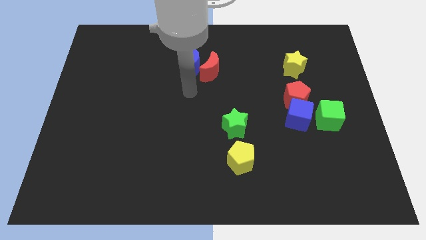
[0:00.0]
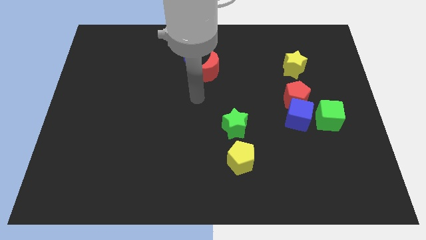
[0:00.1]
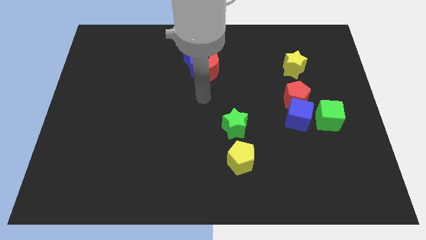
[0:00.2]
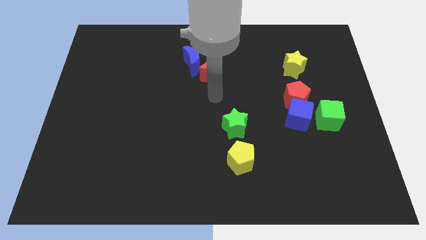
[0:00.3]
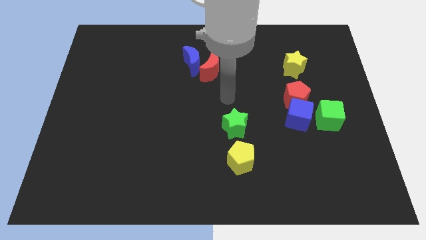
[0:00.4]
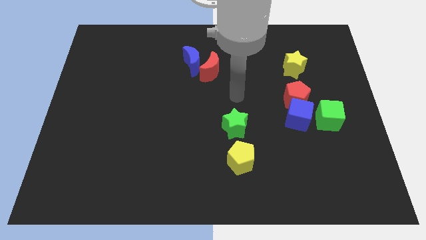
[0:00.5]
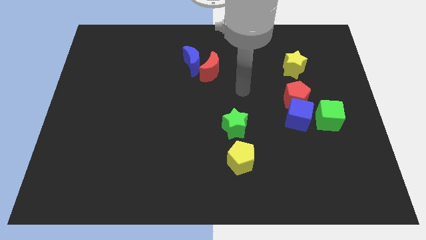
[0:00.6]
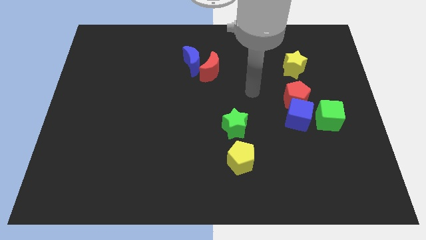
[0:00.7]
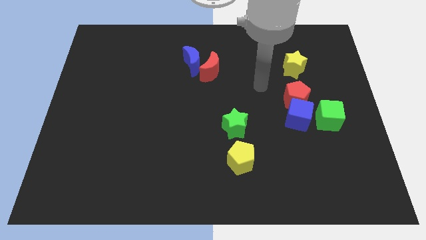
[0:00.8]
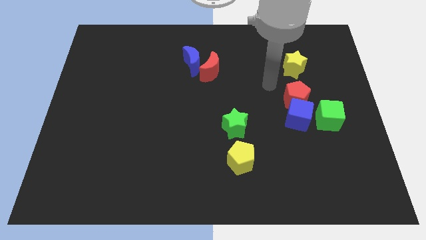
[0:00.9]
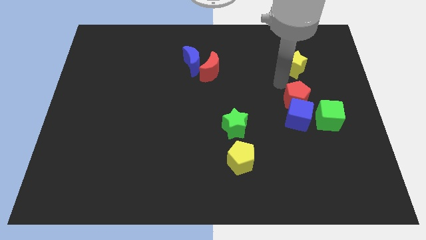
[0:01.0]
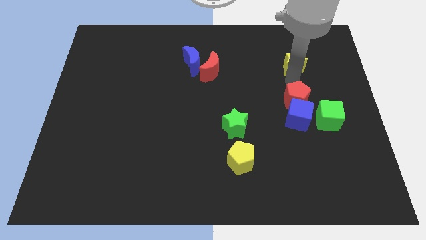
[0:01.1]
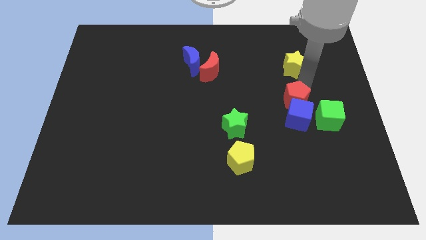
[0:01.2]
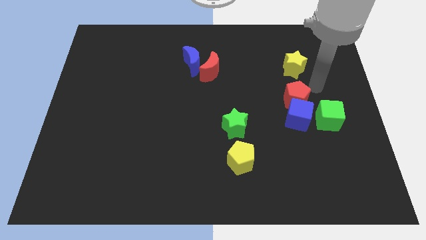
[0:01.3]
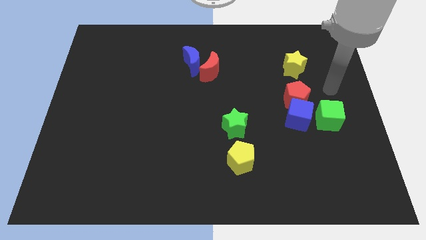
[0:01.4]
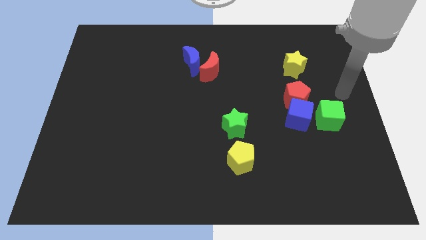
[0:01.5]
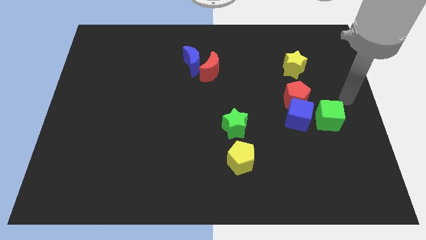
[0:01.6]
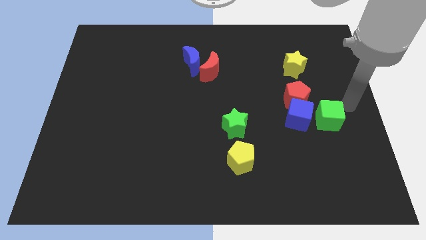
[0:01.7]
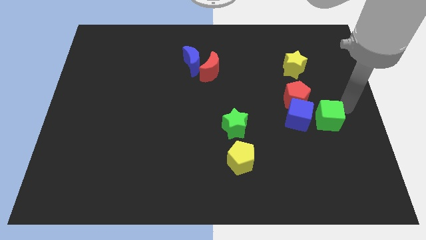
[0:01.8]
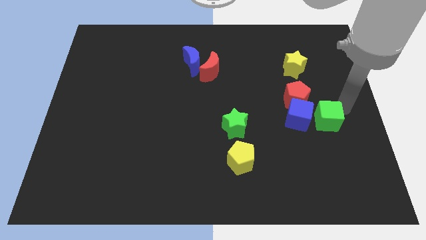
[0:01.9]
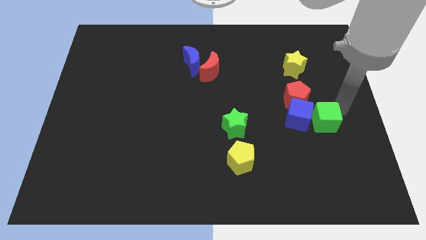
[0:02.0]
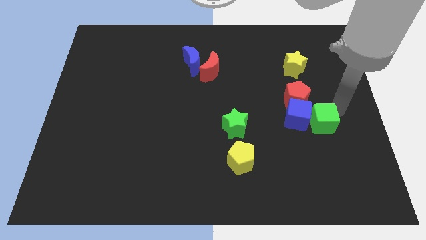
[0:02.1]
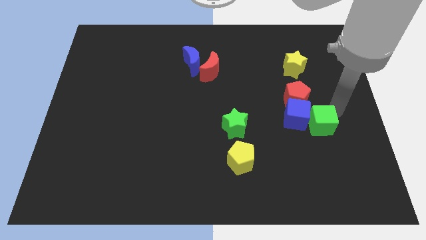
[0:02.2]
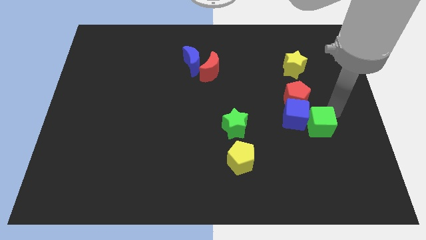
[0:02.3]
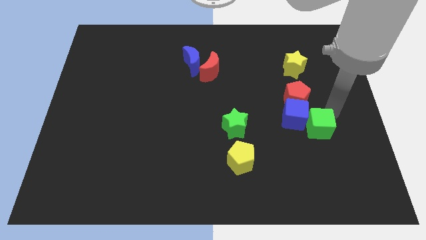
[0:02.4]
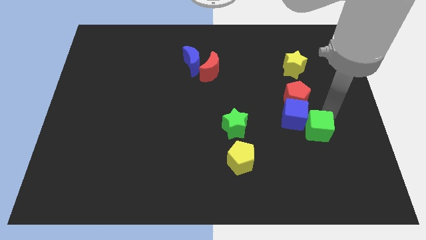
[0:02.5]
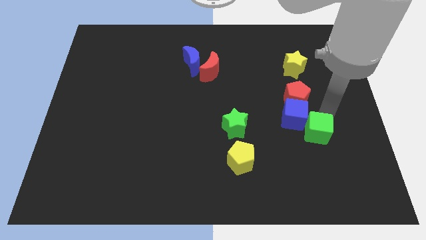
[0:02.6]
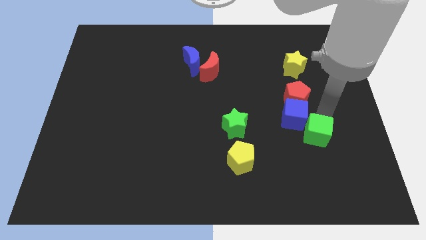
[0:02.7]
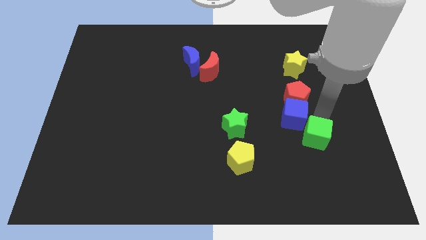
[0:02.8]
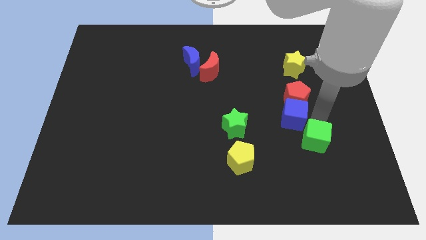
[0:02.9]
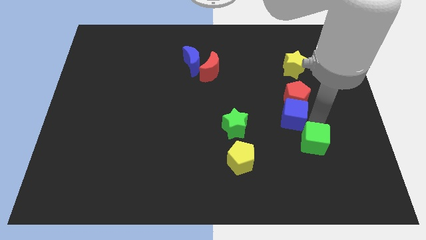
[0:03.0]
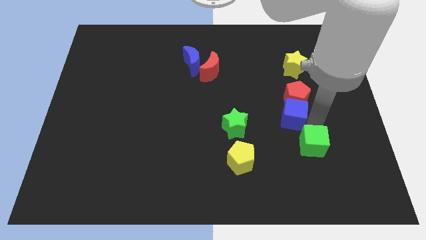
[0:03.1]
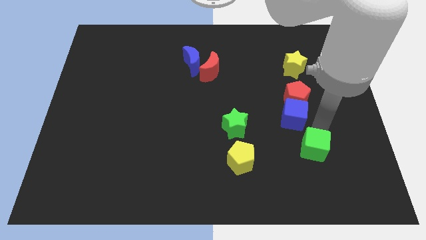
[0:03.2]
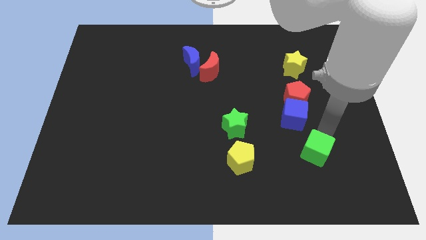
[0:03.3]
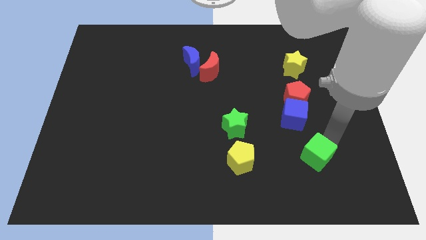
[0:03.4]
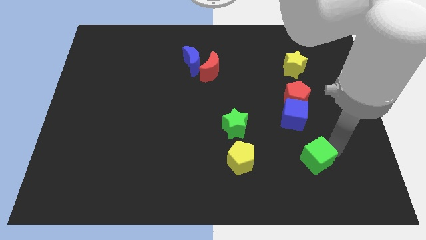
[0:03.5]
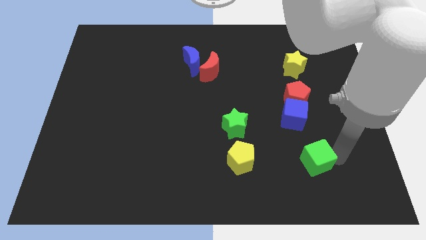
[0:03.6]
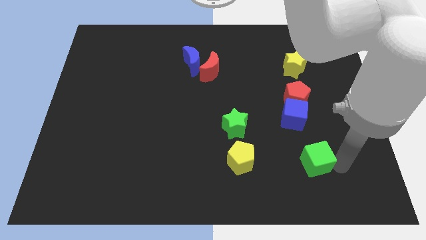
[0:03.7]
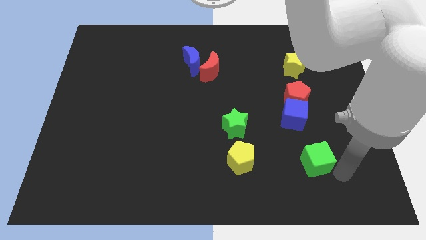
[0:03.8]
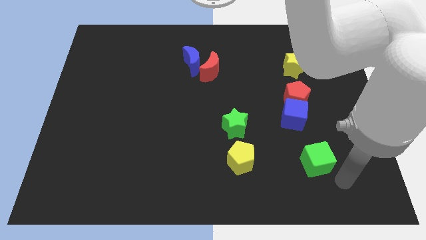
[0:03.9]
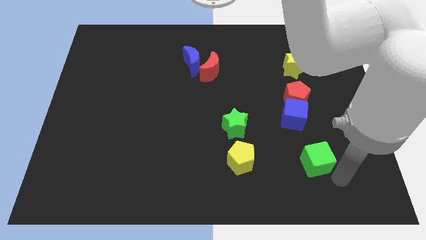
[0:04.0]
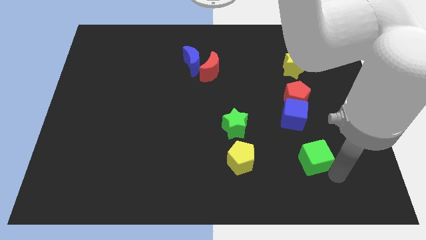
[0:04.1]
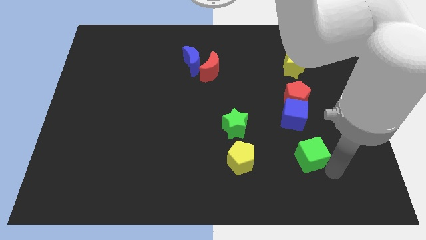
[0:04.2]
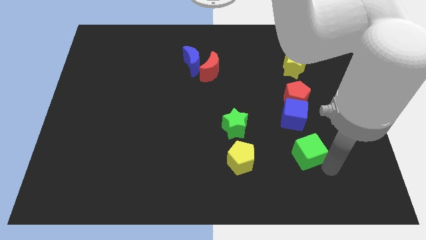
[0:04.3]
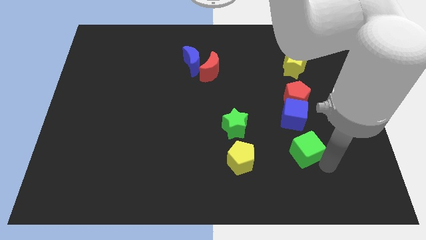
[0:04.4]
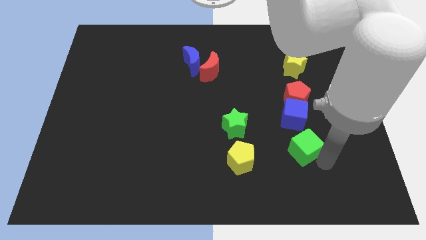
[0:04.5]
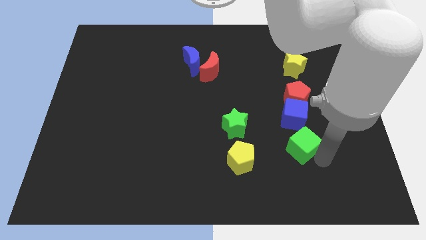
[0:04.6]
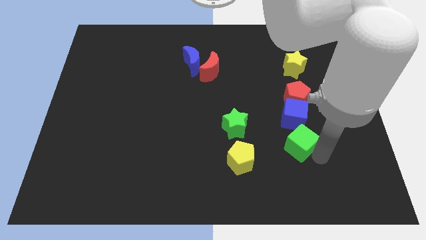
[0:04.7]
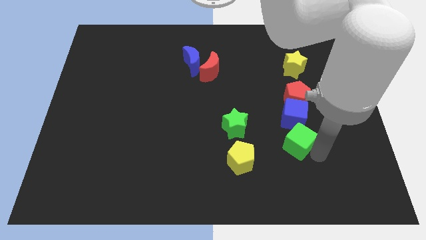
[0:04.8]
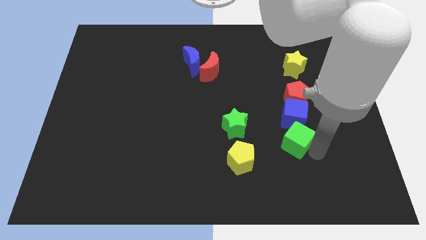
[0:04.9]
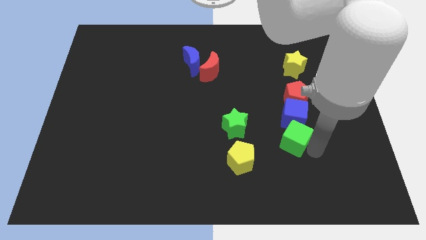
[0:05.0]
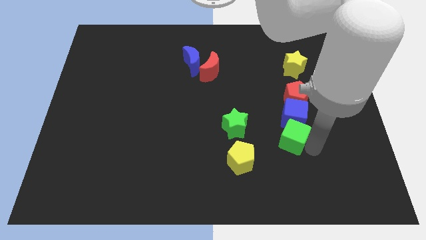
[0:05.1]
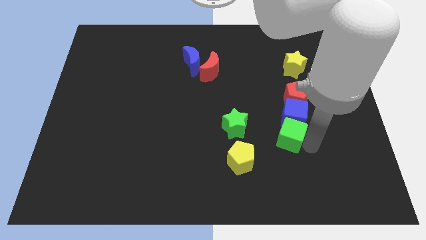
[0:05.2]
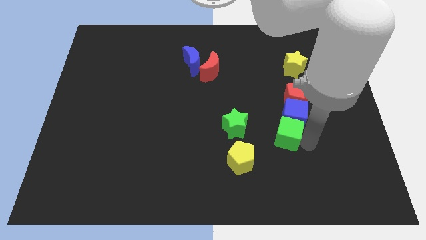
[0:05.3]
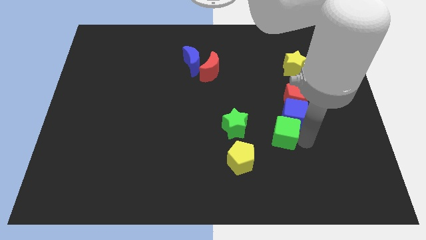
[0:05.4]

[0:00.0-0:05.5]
move the green cube to the top right side of the yellow pentagon

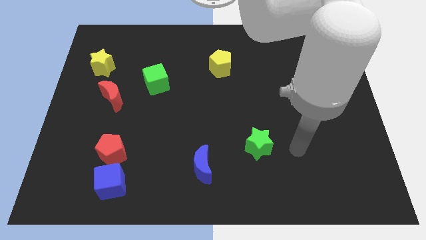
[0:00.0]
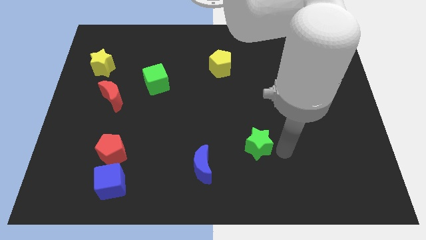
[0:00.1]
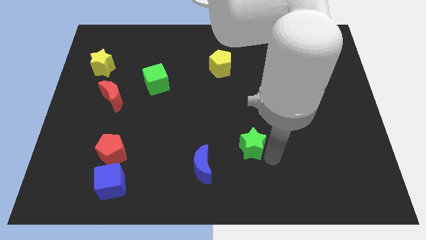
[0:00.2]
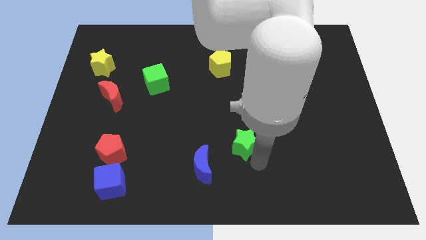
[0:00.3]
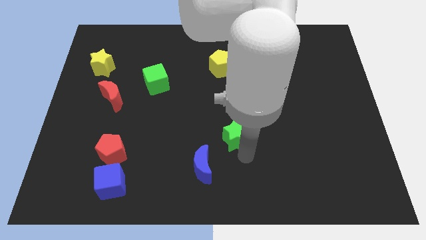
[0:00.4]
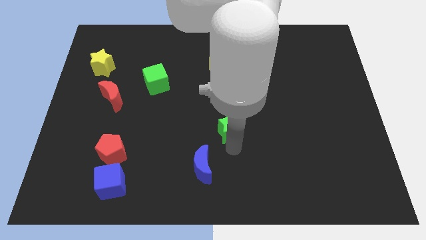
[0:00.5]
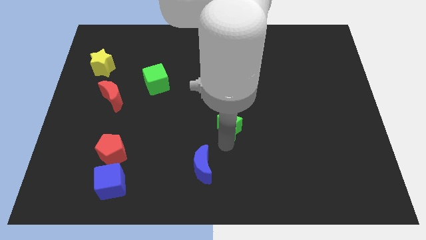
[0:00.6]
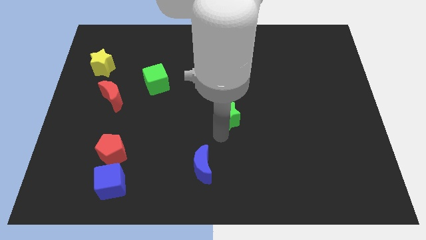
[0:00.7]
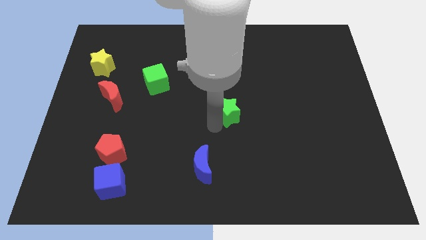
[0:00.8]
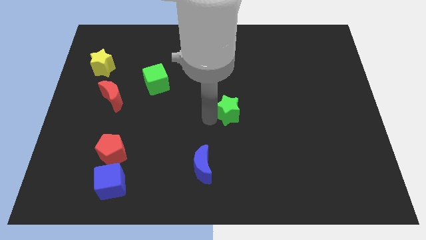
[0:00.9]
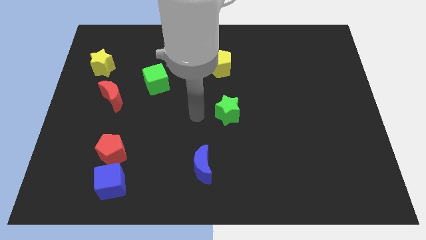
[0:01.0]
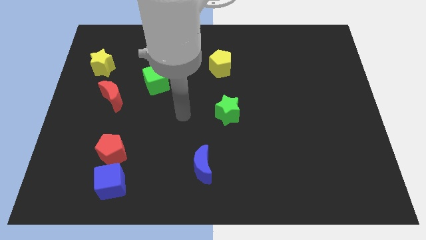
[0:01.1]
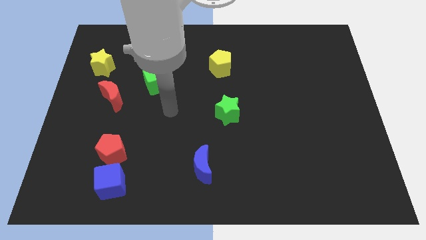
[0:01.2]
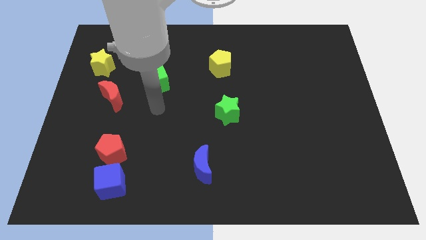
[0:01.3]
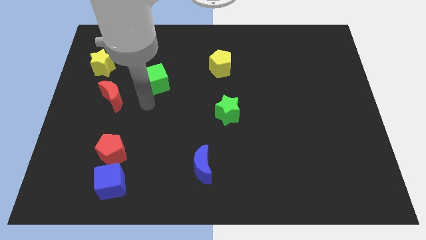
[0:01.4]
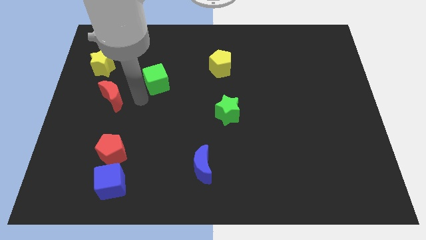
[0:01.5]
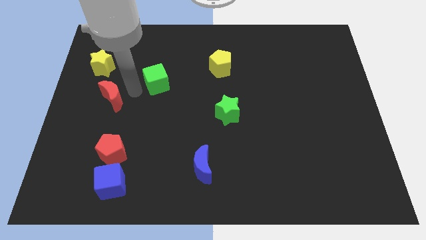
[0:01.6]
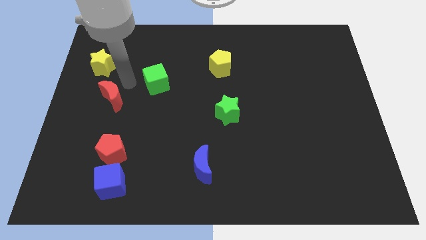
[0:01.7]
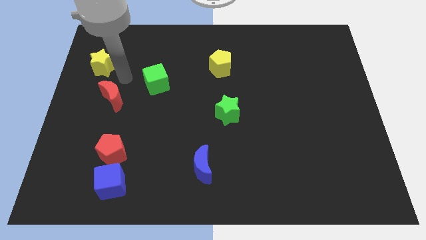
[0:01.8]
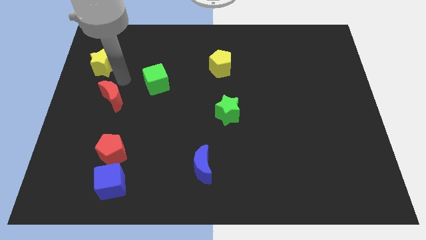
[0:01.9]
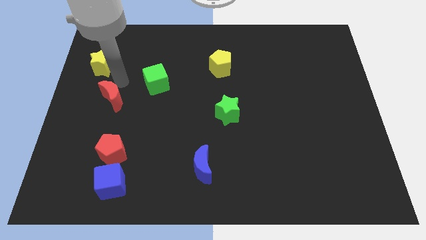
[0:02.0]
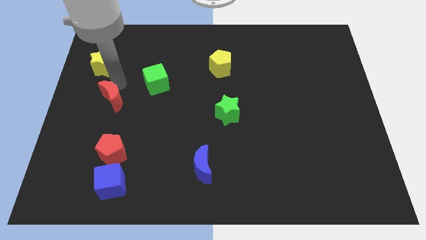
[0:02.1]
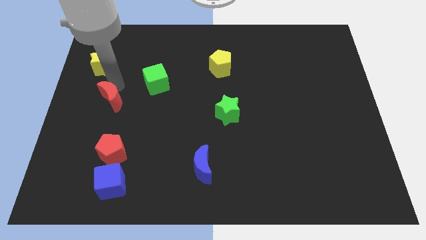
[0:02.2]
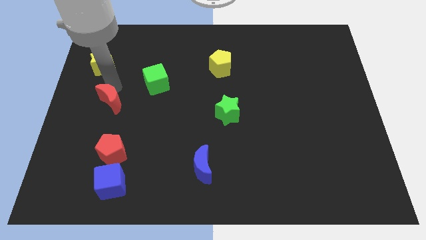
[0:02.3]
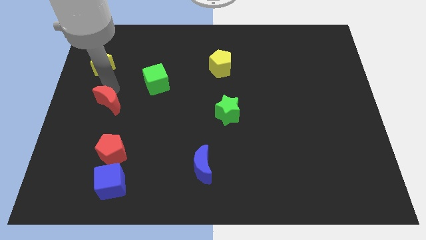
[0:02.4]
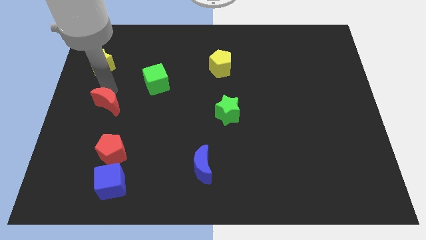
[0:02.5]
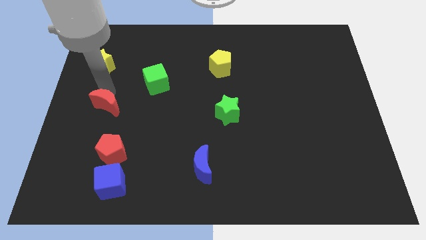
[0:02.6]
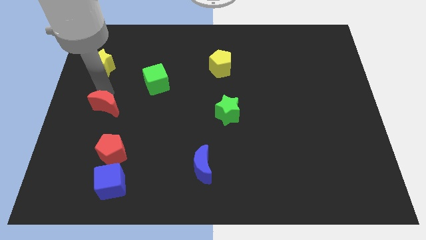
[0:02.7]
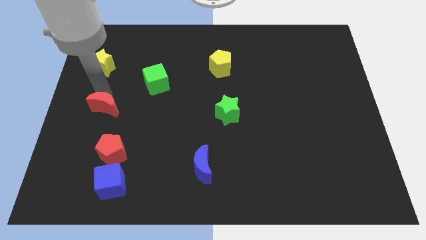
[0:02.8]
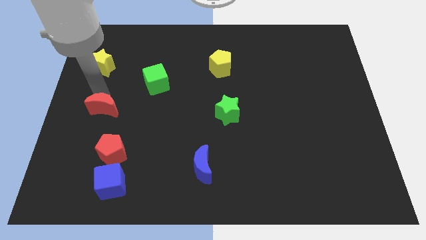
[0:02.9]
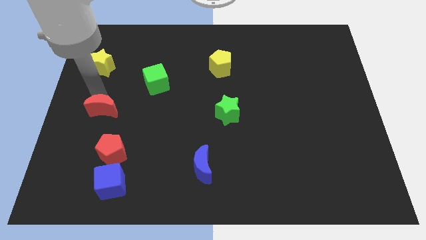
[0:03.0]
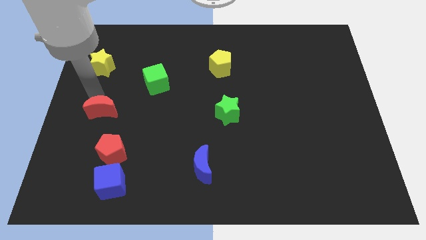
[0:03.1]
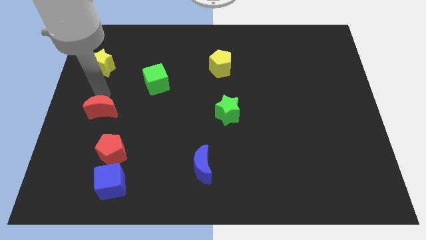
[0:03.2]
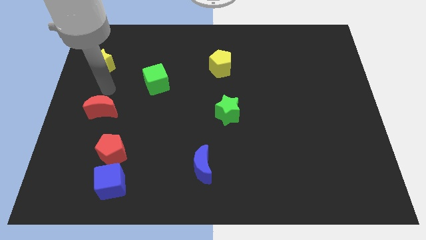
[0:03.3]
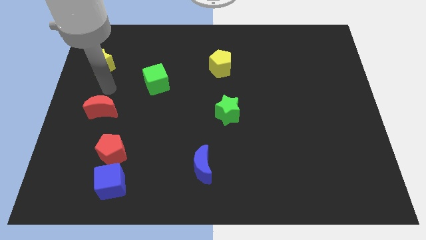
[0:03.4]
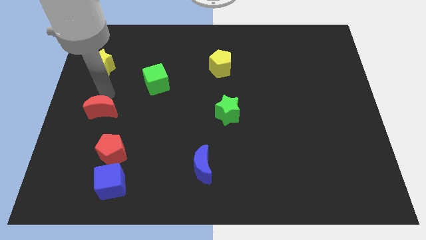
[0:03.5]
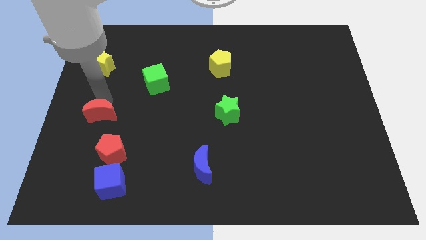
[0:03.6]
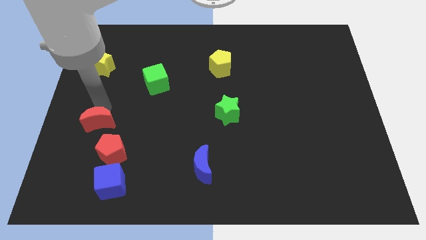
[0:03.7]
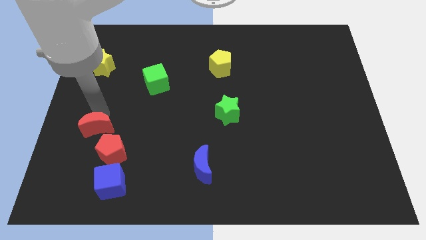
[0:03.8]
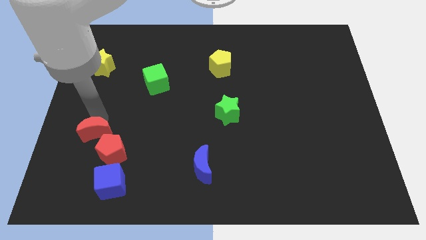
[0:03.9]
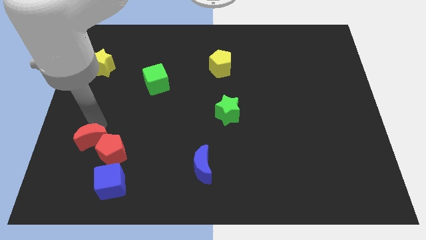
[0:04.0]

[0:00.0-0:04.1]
put the red moon to the top left side of the blue cube
